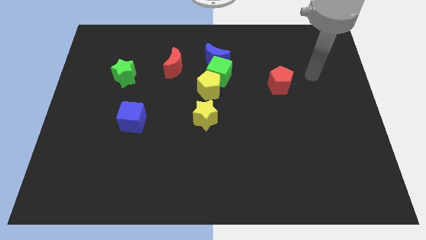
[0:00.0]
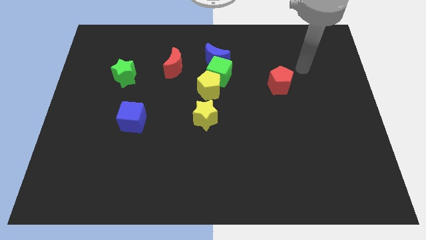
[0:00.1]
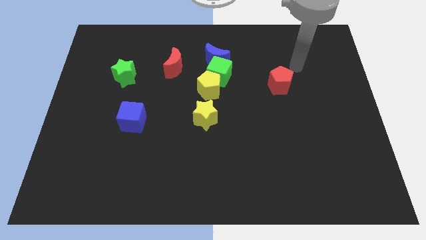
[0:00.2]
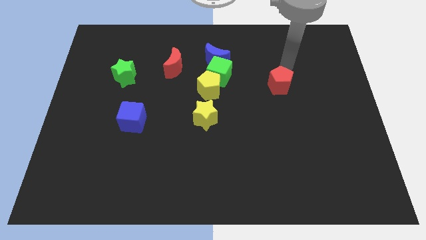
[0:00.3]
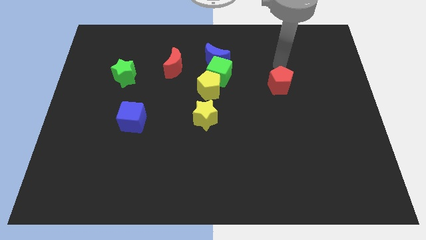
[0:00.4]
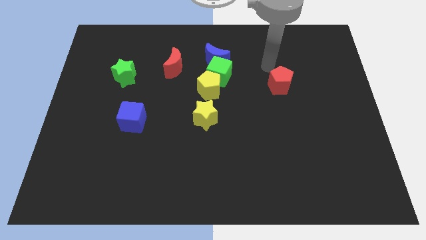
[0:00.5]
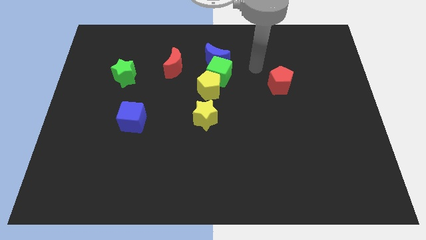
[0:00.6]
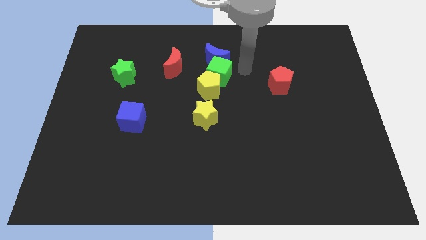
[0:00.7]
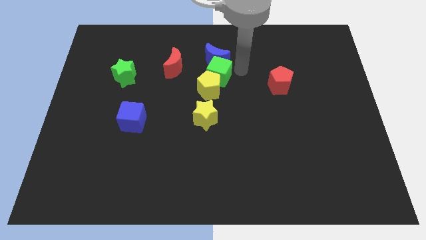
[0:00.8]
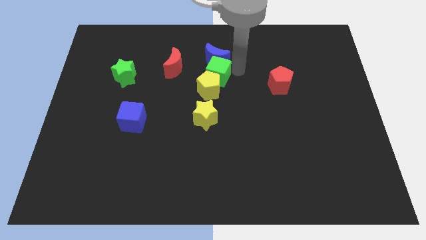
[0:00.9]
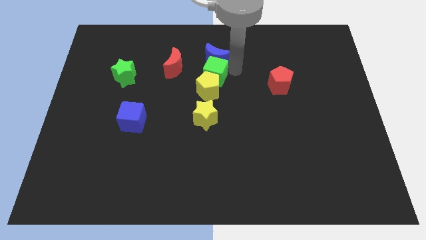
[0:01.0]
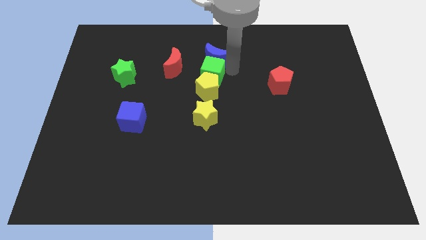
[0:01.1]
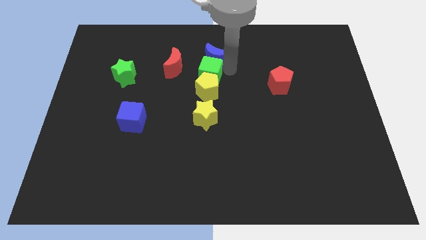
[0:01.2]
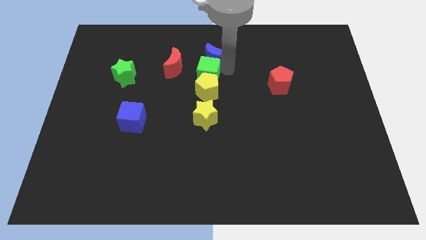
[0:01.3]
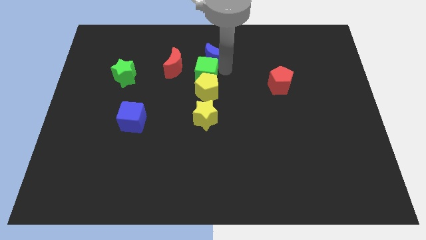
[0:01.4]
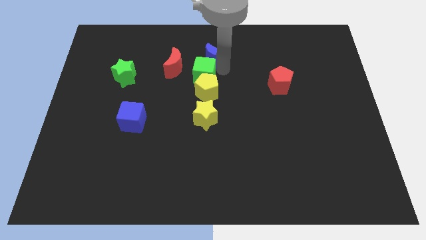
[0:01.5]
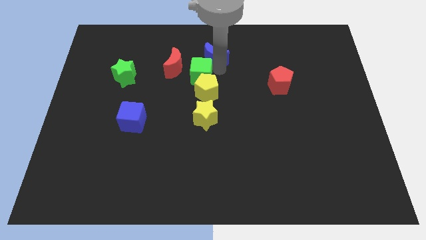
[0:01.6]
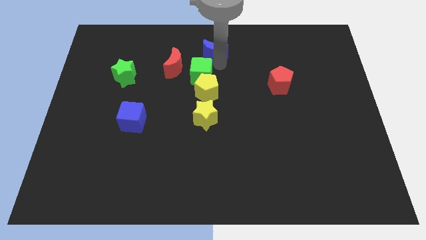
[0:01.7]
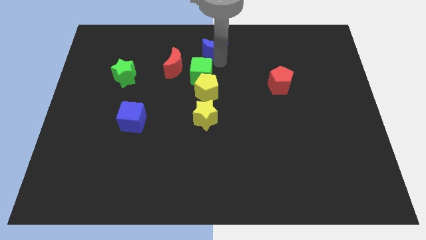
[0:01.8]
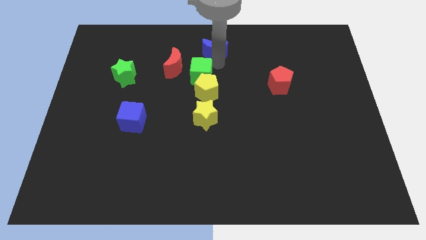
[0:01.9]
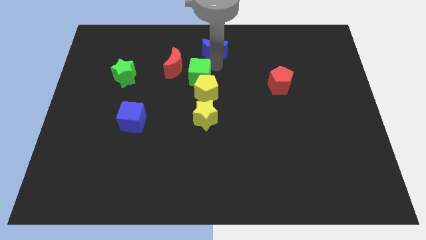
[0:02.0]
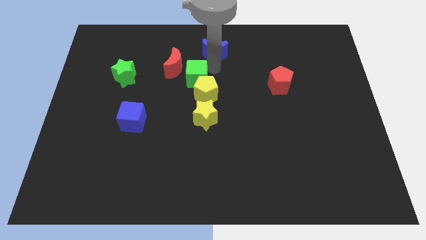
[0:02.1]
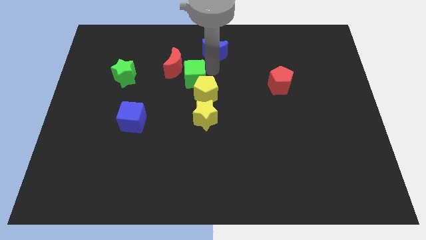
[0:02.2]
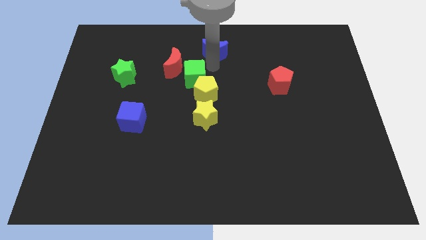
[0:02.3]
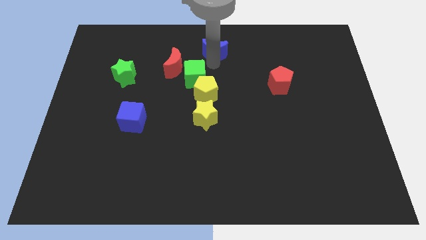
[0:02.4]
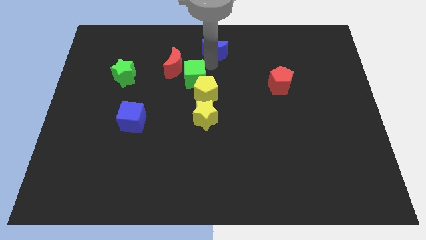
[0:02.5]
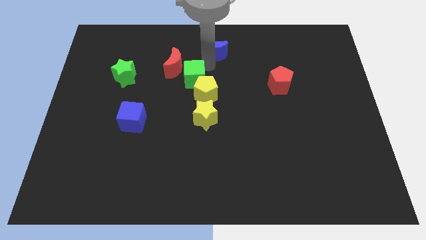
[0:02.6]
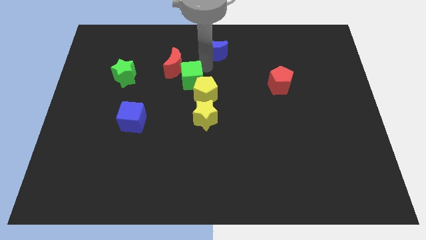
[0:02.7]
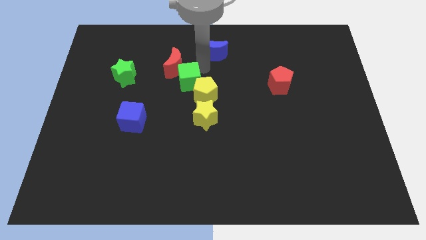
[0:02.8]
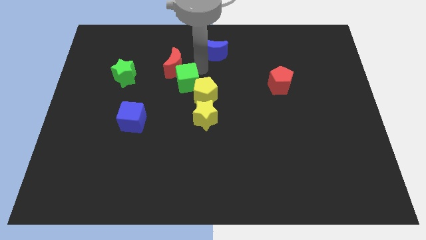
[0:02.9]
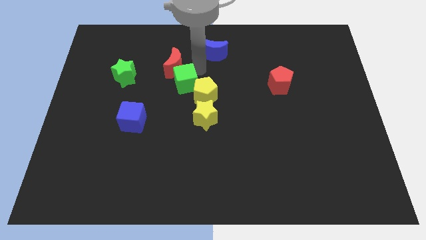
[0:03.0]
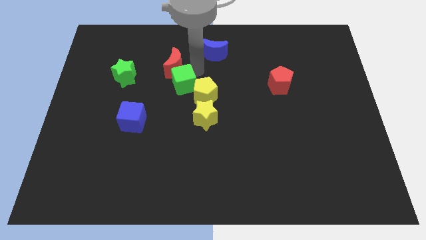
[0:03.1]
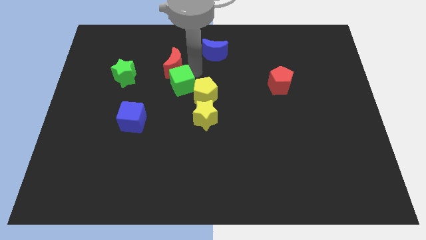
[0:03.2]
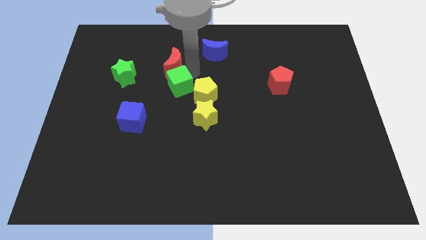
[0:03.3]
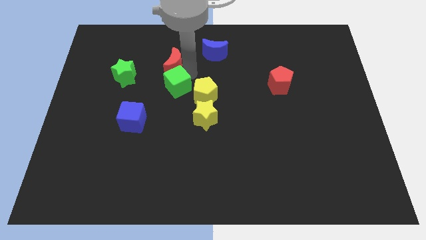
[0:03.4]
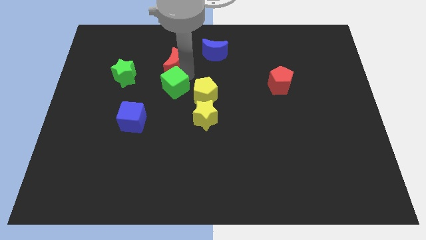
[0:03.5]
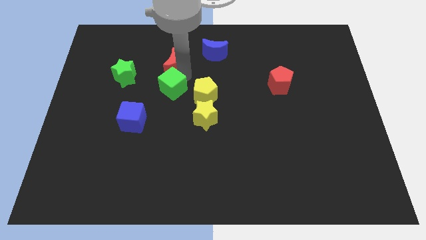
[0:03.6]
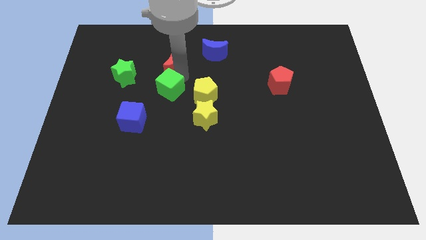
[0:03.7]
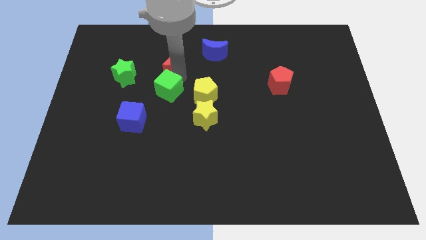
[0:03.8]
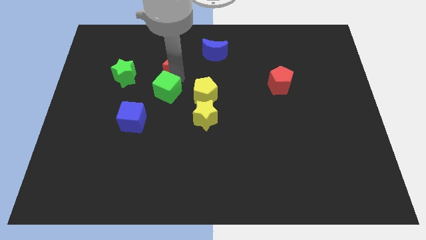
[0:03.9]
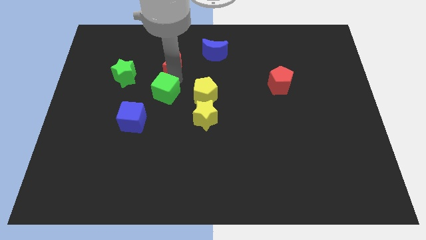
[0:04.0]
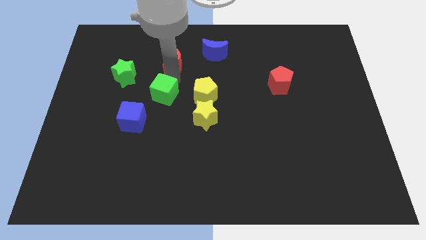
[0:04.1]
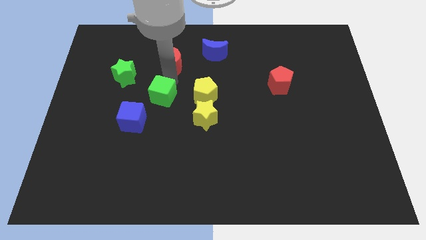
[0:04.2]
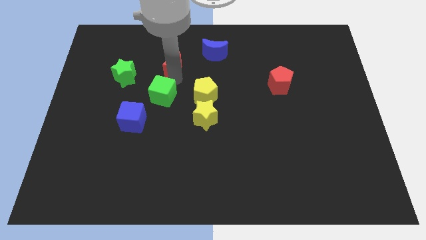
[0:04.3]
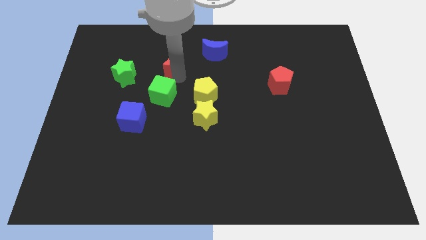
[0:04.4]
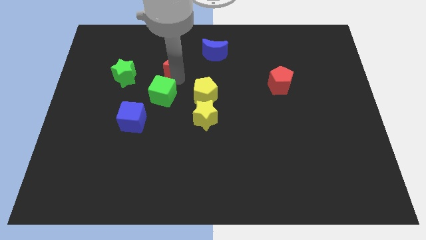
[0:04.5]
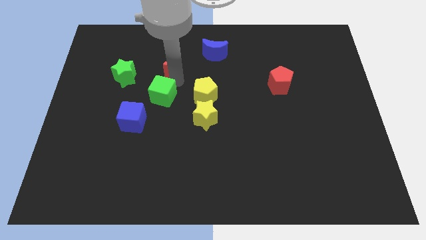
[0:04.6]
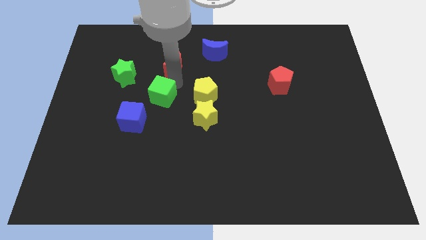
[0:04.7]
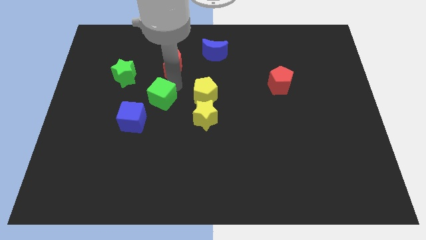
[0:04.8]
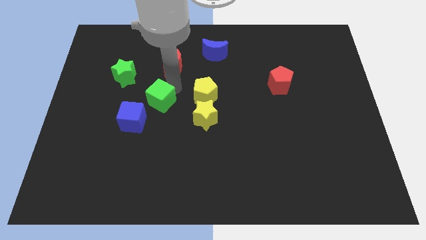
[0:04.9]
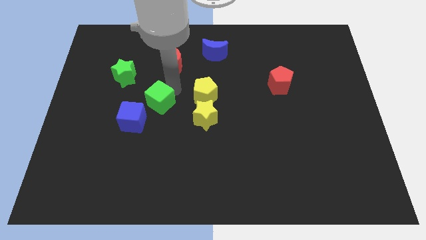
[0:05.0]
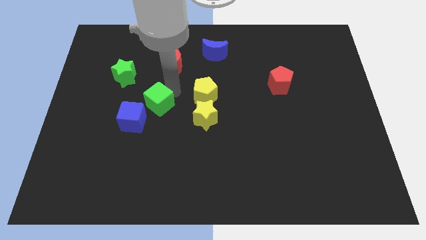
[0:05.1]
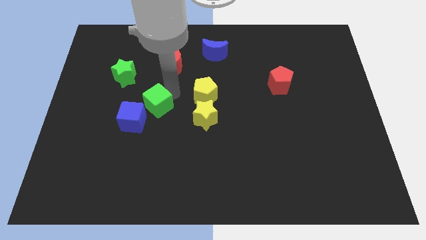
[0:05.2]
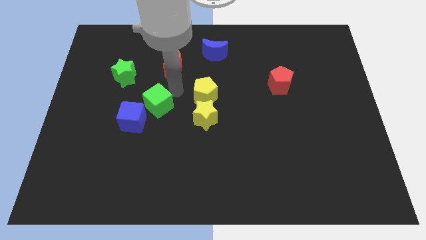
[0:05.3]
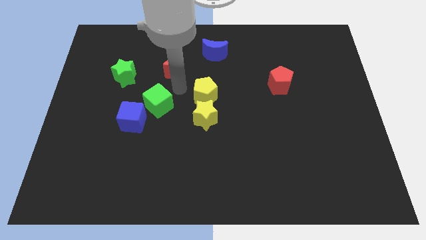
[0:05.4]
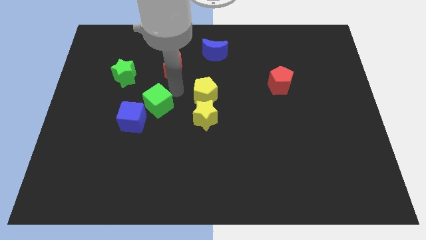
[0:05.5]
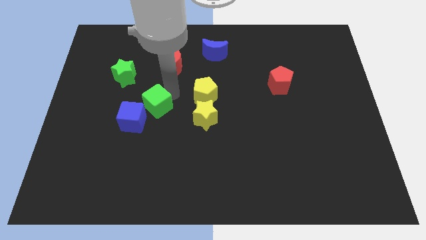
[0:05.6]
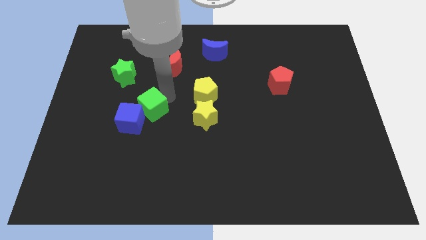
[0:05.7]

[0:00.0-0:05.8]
push the green cube next to the blue cube

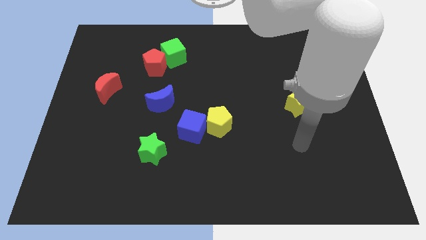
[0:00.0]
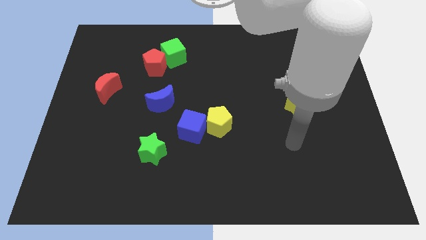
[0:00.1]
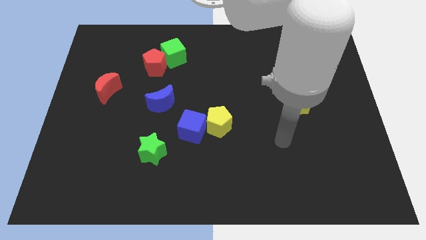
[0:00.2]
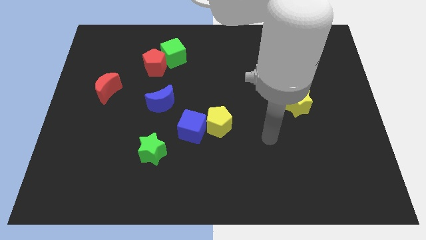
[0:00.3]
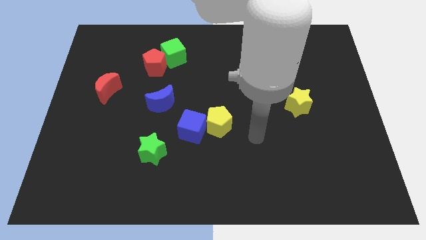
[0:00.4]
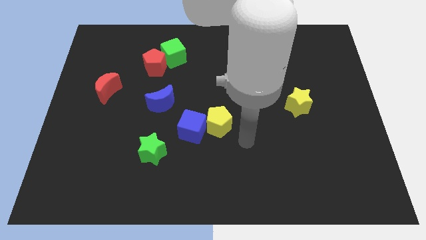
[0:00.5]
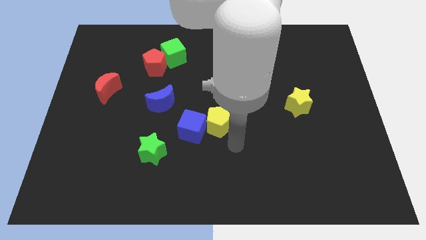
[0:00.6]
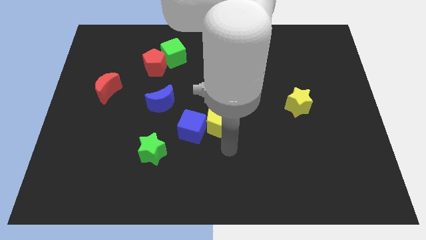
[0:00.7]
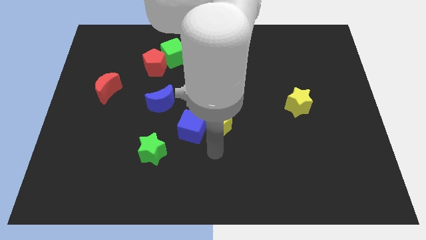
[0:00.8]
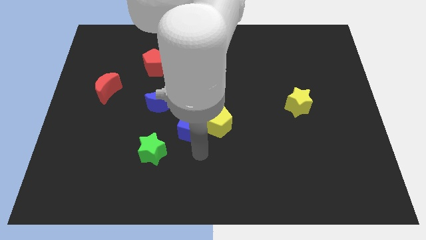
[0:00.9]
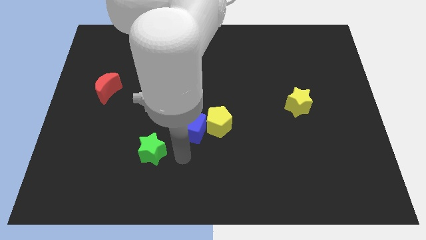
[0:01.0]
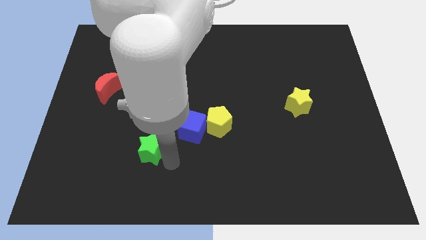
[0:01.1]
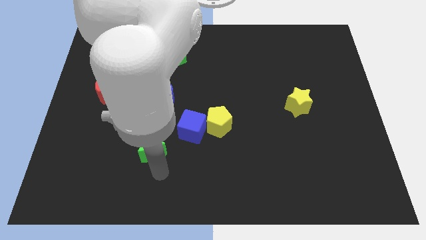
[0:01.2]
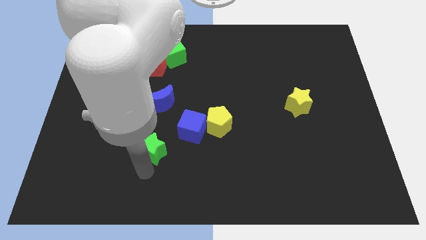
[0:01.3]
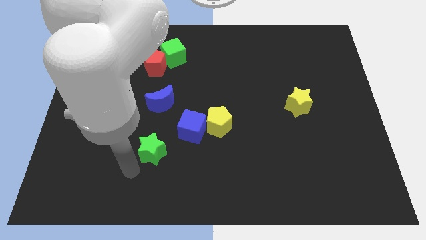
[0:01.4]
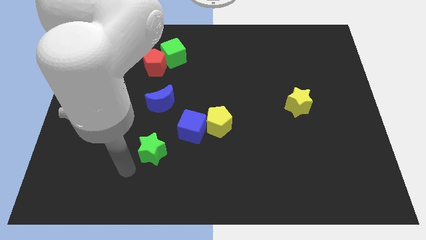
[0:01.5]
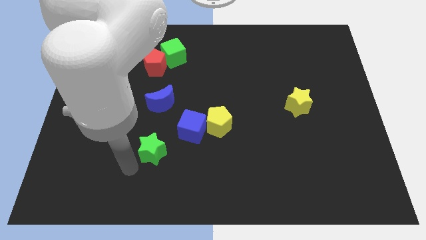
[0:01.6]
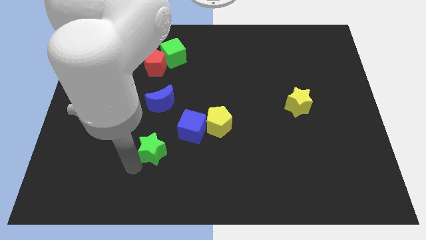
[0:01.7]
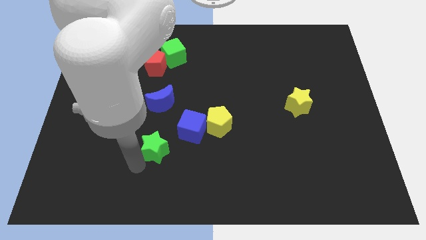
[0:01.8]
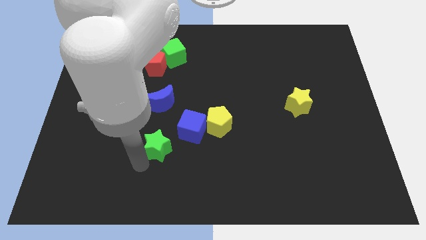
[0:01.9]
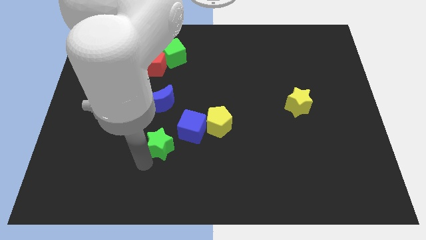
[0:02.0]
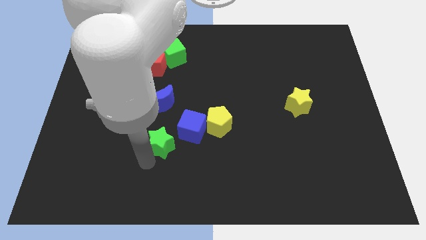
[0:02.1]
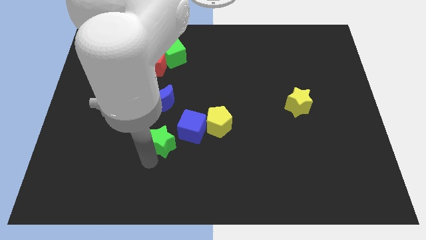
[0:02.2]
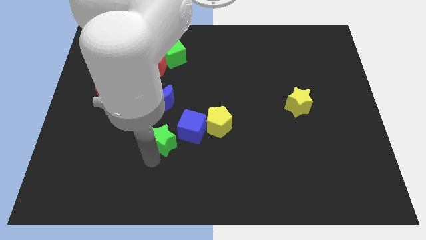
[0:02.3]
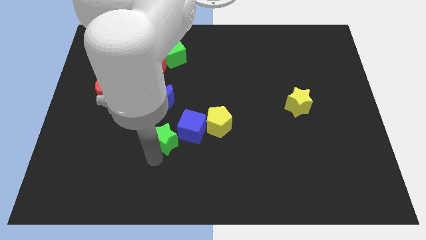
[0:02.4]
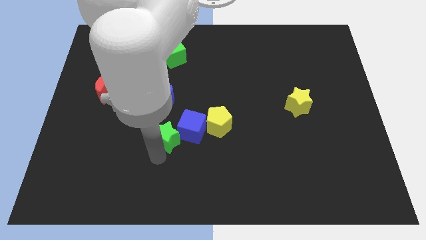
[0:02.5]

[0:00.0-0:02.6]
slide the green star next to the blue cube
